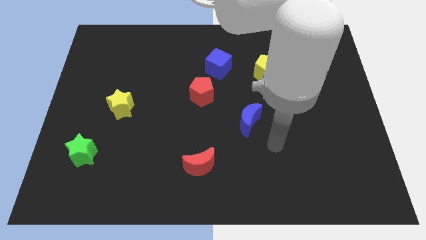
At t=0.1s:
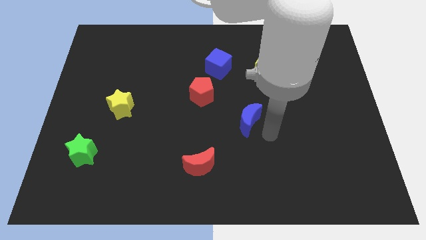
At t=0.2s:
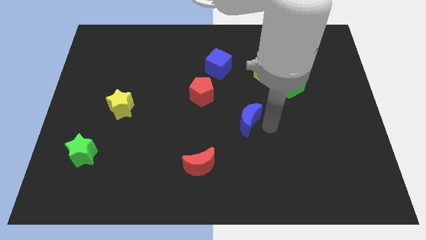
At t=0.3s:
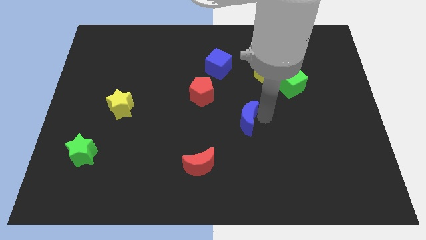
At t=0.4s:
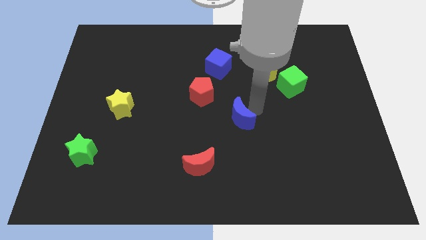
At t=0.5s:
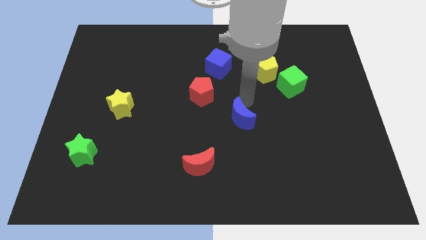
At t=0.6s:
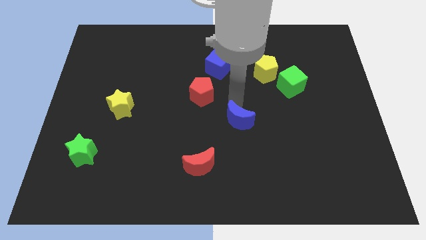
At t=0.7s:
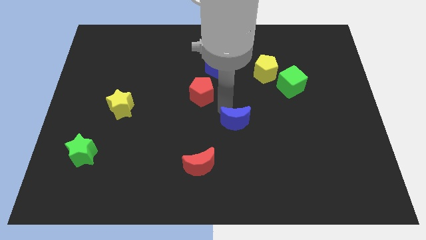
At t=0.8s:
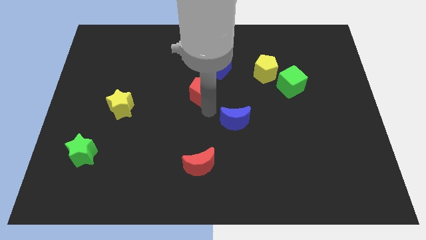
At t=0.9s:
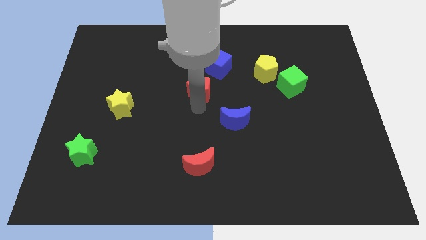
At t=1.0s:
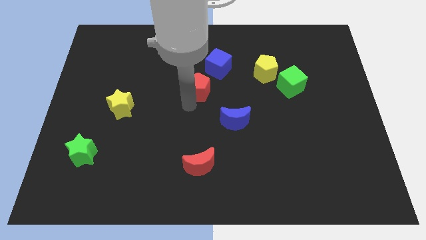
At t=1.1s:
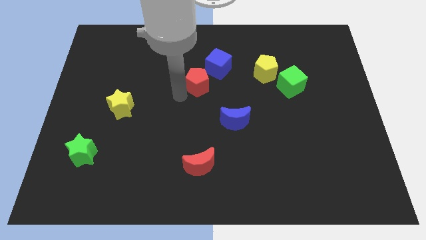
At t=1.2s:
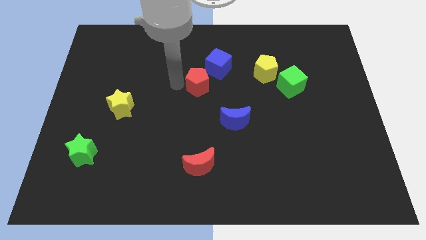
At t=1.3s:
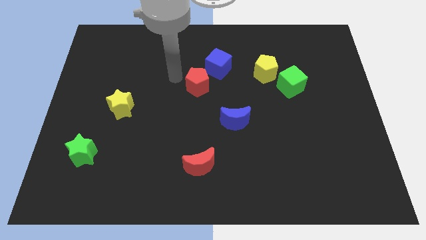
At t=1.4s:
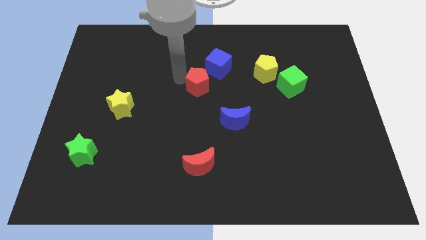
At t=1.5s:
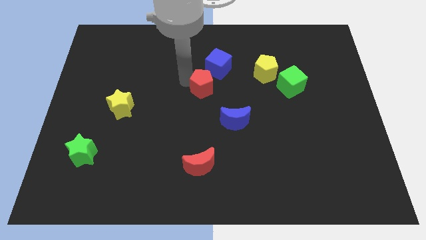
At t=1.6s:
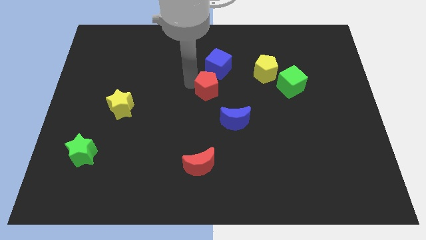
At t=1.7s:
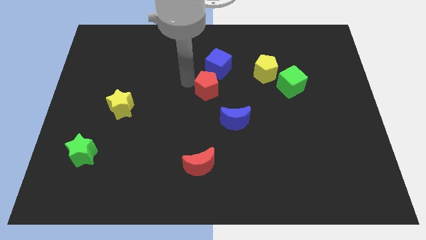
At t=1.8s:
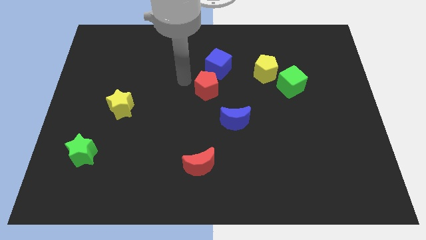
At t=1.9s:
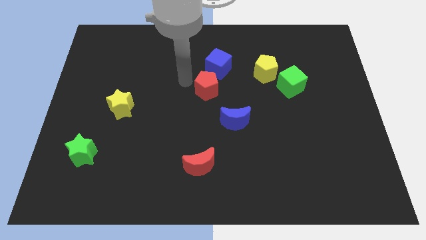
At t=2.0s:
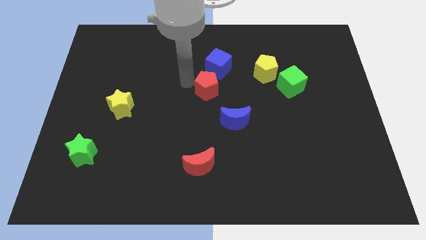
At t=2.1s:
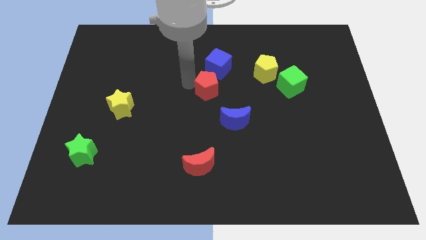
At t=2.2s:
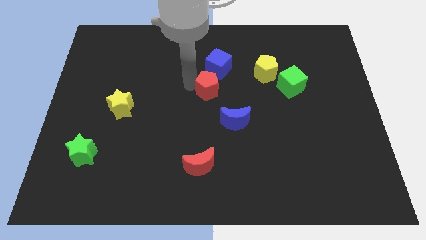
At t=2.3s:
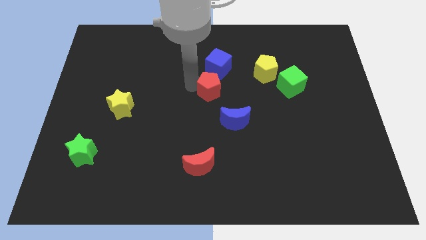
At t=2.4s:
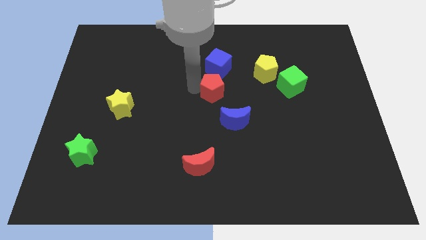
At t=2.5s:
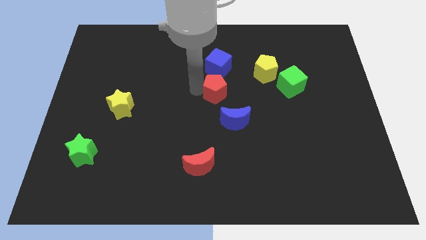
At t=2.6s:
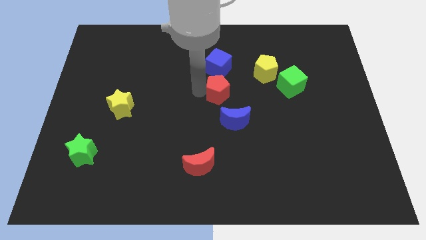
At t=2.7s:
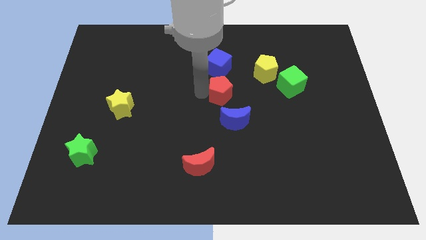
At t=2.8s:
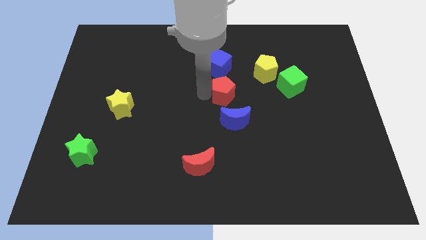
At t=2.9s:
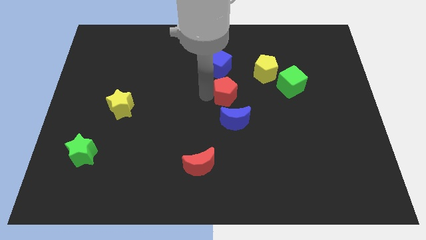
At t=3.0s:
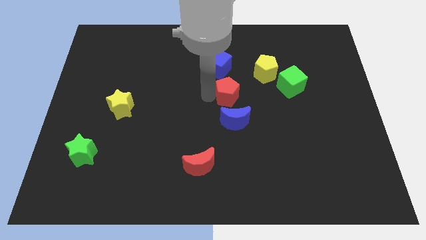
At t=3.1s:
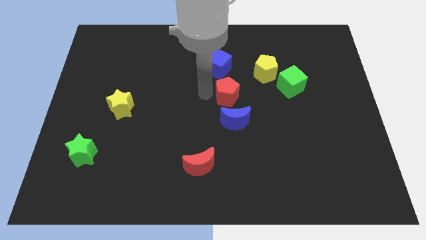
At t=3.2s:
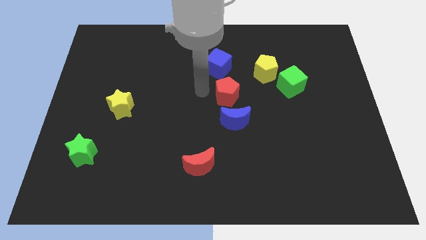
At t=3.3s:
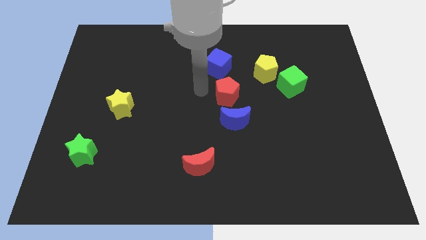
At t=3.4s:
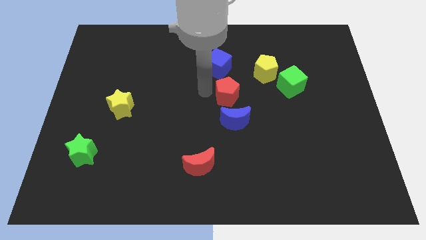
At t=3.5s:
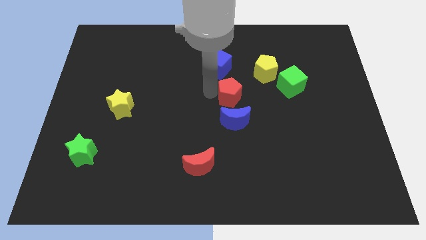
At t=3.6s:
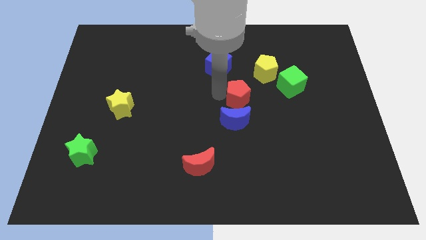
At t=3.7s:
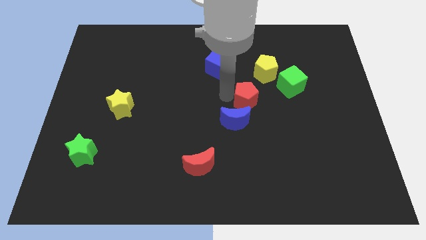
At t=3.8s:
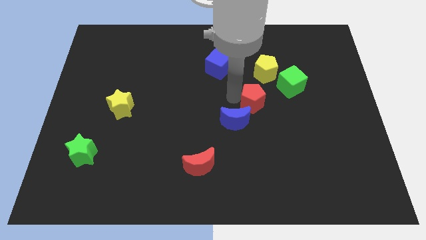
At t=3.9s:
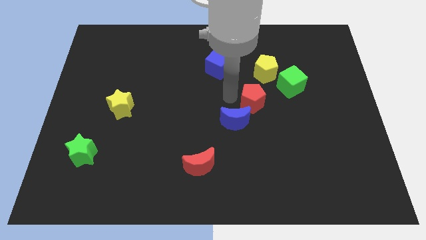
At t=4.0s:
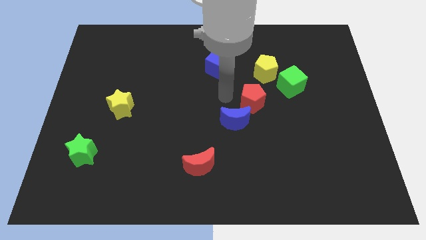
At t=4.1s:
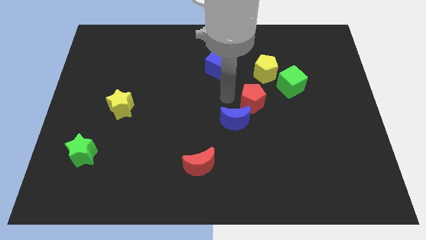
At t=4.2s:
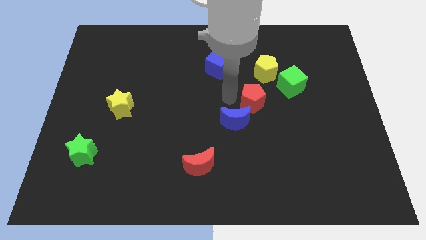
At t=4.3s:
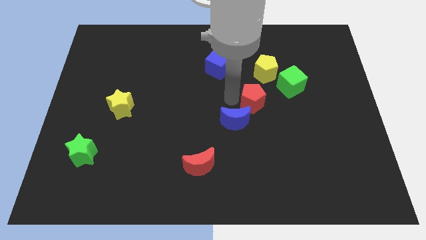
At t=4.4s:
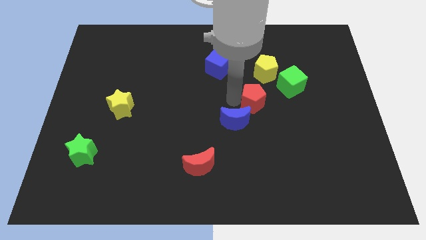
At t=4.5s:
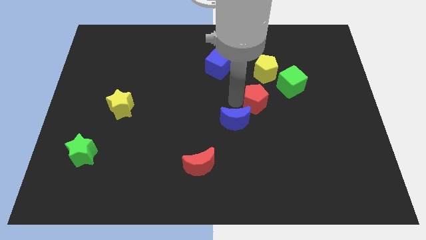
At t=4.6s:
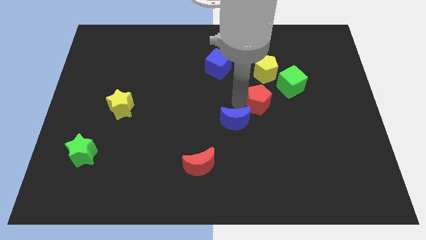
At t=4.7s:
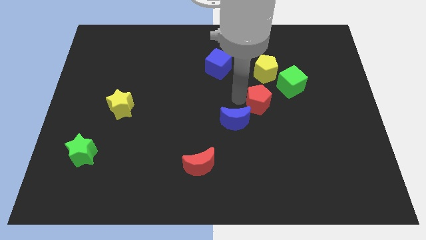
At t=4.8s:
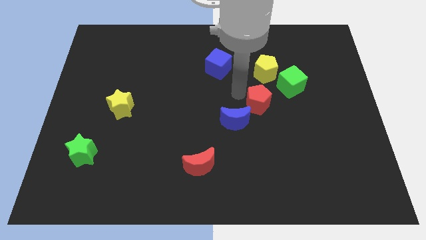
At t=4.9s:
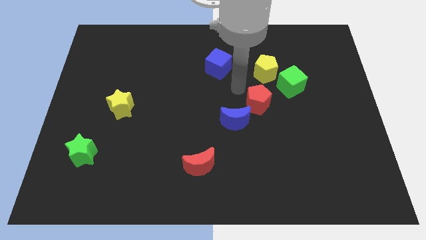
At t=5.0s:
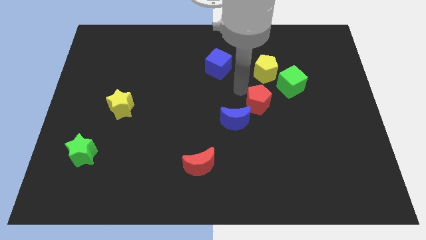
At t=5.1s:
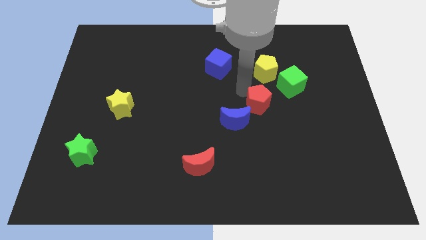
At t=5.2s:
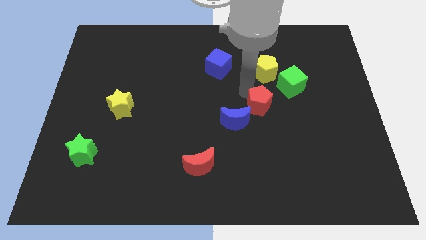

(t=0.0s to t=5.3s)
put the red pentagon right of the blue moon

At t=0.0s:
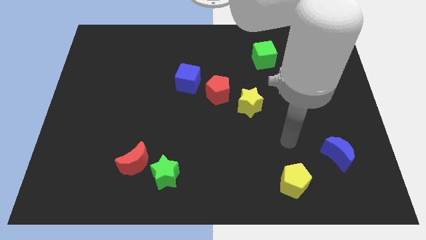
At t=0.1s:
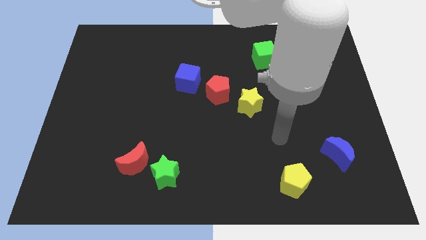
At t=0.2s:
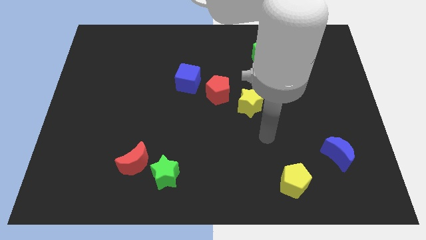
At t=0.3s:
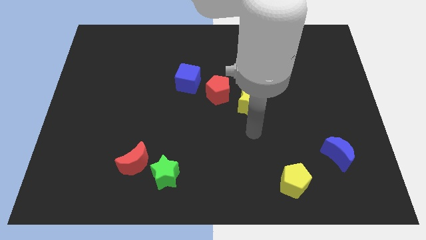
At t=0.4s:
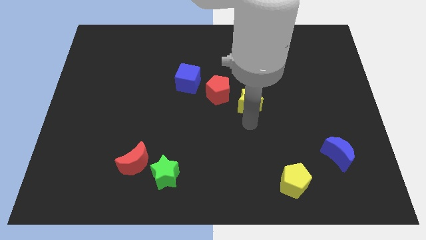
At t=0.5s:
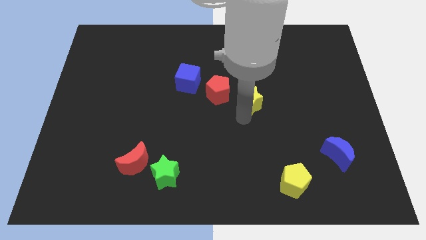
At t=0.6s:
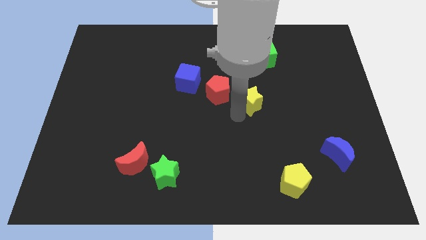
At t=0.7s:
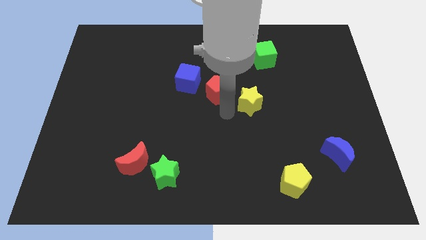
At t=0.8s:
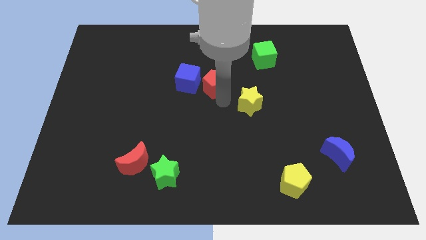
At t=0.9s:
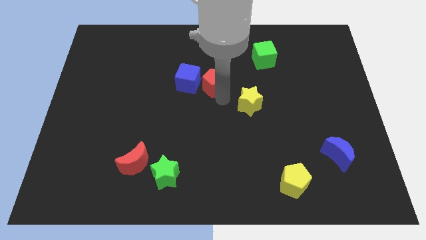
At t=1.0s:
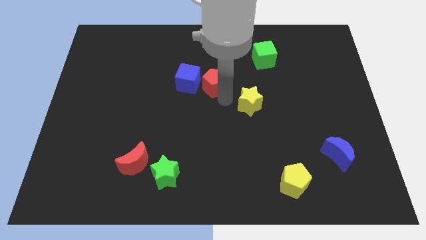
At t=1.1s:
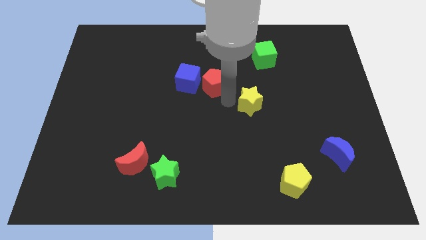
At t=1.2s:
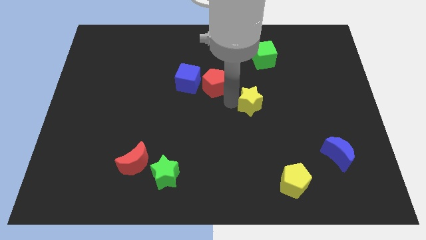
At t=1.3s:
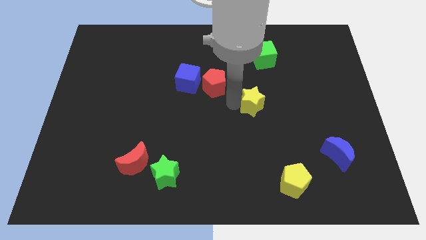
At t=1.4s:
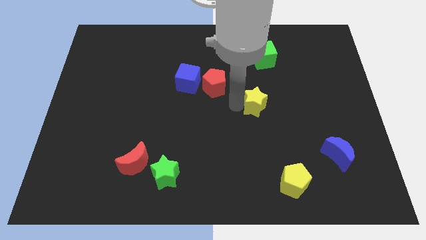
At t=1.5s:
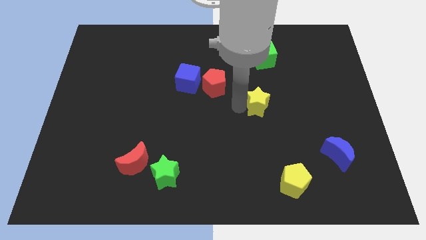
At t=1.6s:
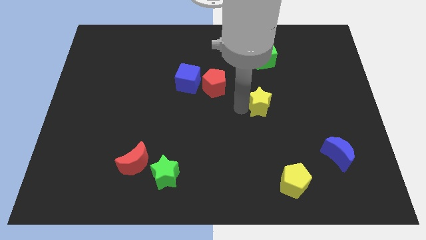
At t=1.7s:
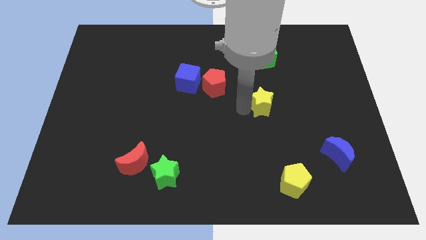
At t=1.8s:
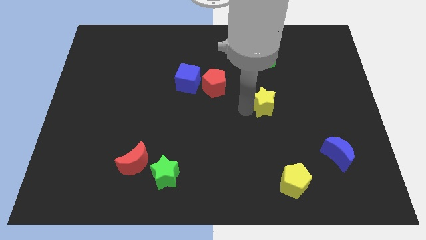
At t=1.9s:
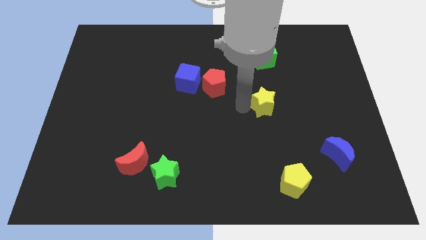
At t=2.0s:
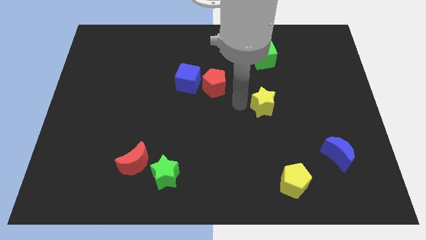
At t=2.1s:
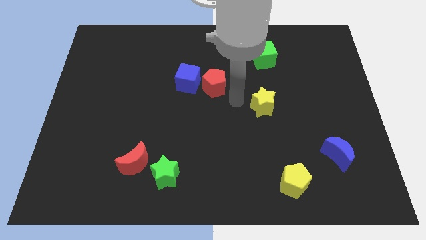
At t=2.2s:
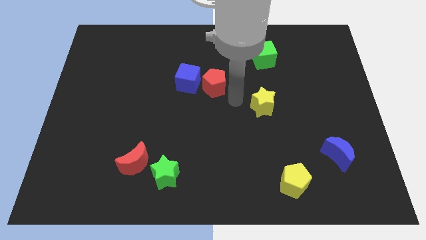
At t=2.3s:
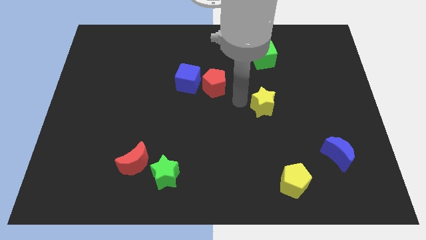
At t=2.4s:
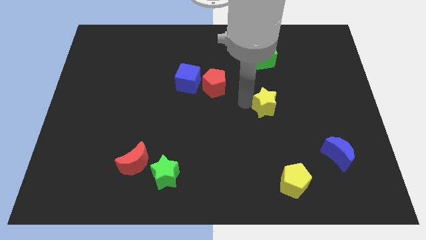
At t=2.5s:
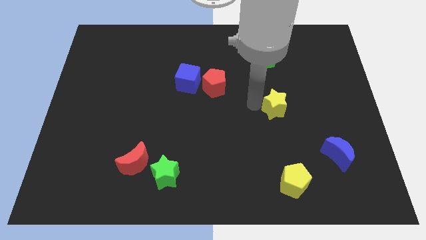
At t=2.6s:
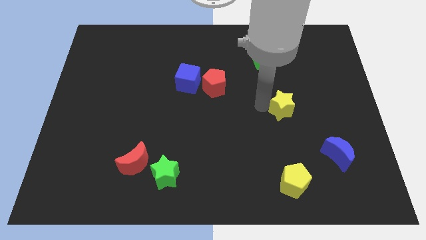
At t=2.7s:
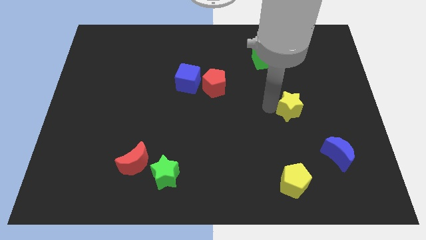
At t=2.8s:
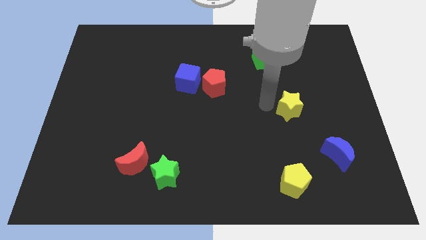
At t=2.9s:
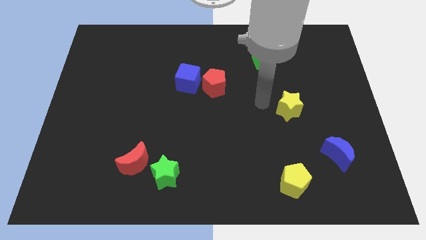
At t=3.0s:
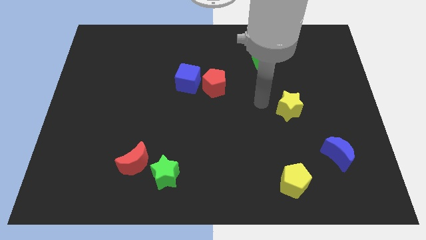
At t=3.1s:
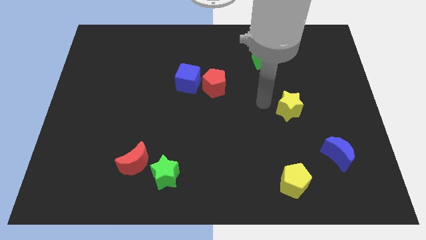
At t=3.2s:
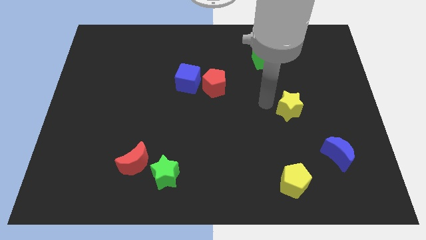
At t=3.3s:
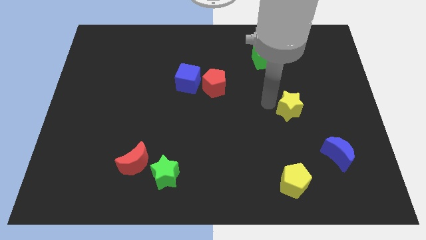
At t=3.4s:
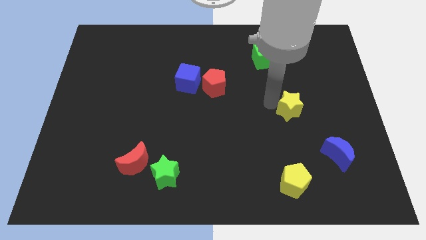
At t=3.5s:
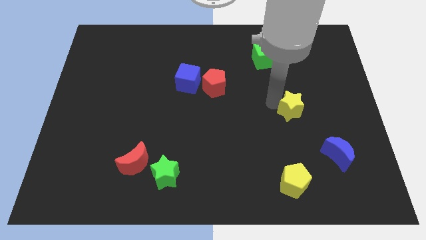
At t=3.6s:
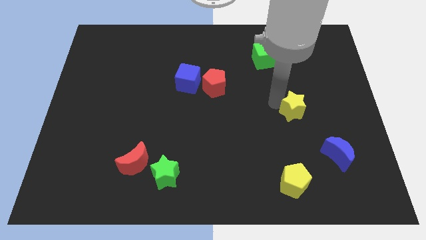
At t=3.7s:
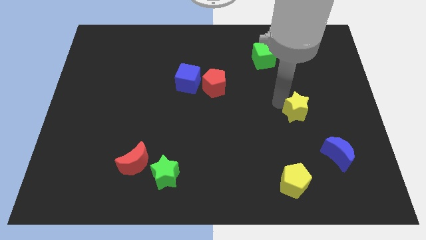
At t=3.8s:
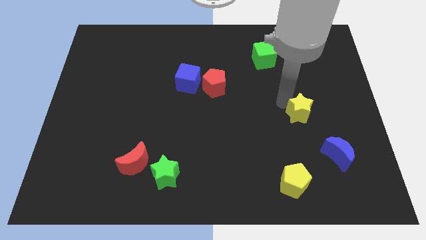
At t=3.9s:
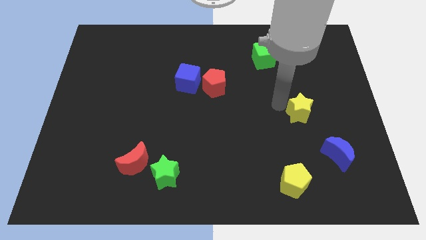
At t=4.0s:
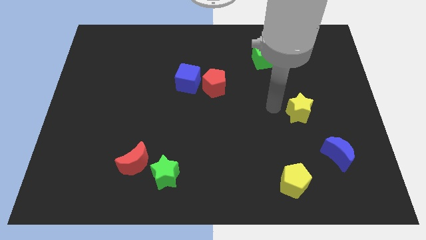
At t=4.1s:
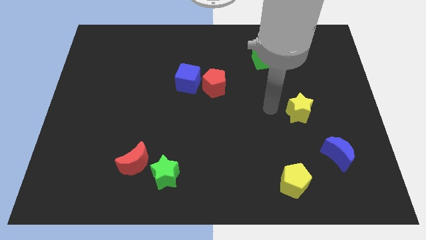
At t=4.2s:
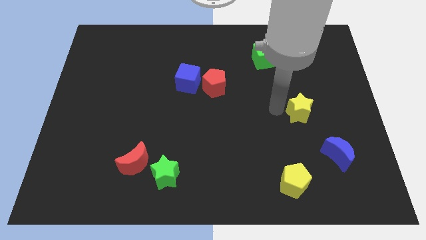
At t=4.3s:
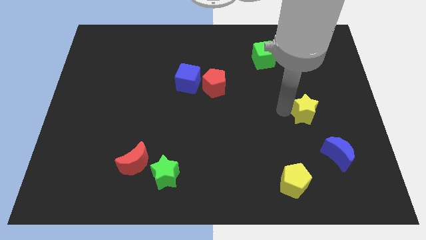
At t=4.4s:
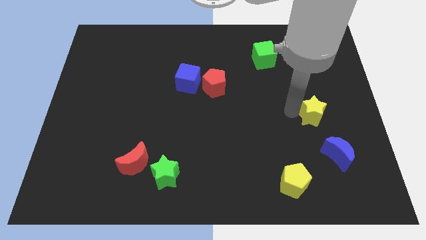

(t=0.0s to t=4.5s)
put the yellow star to the top side of the blue moon
